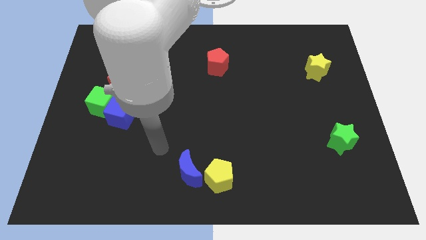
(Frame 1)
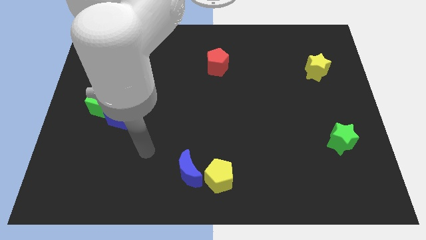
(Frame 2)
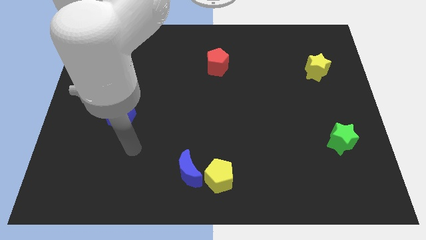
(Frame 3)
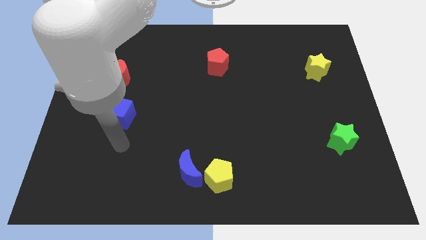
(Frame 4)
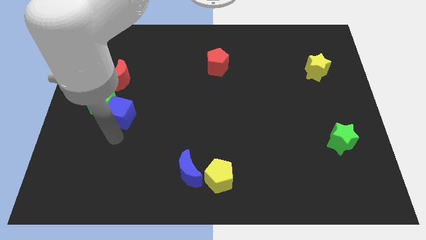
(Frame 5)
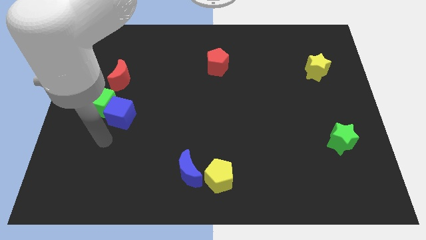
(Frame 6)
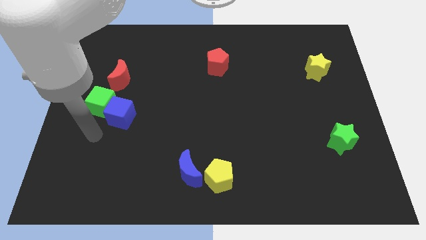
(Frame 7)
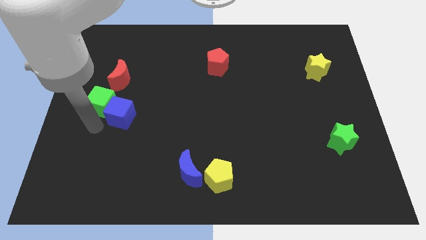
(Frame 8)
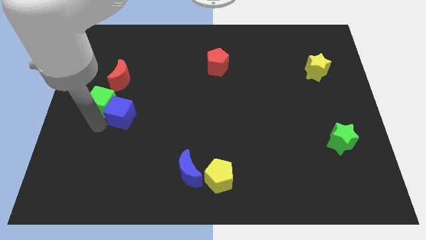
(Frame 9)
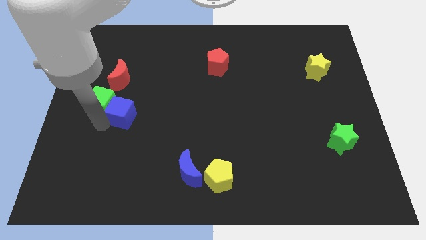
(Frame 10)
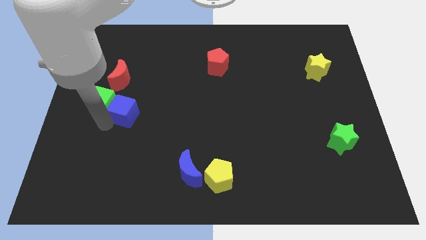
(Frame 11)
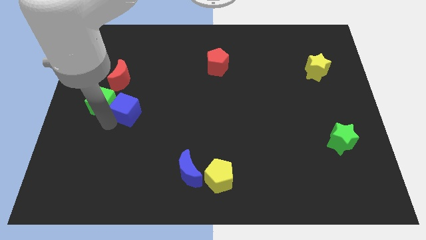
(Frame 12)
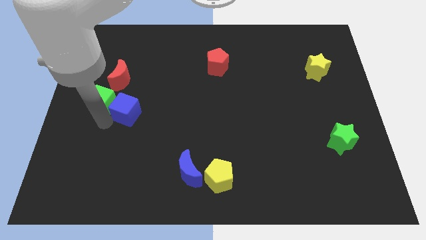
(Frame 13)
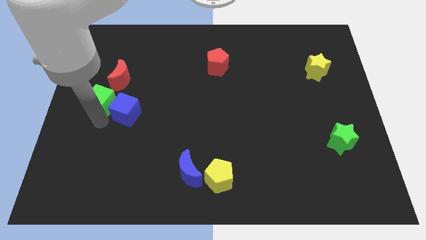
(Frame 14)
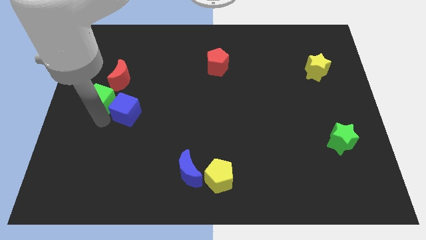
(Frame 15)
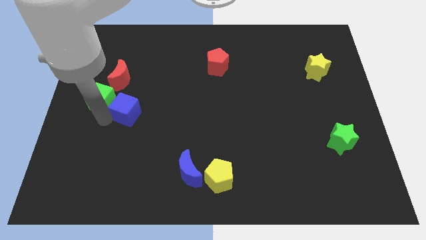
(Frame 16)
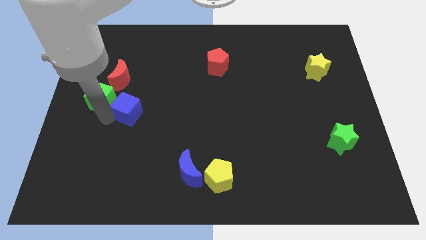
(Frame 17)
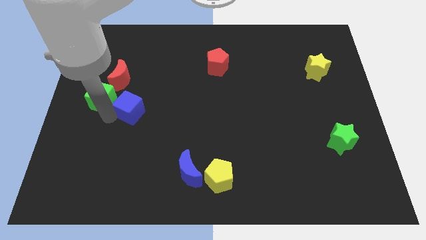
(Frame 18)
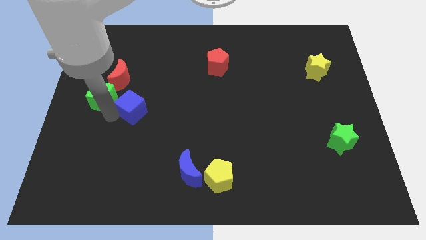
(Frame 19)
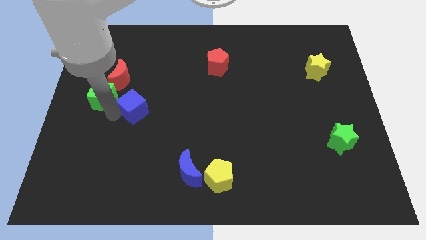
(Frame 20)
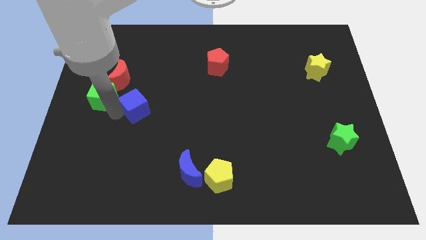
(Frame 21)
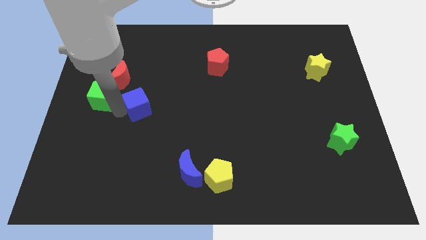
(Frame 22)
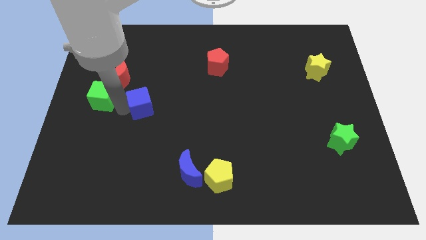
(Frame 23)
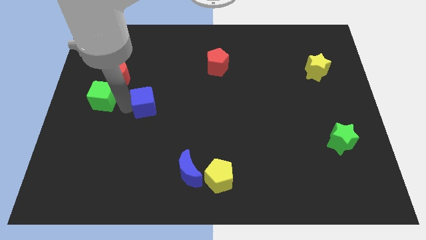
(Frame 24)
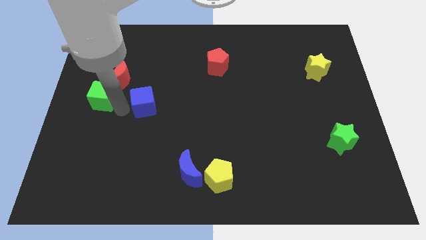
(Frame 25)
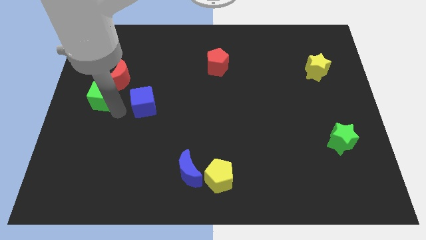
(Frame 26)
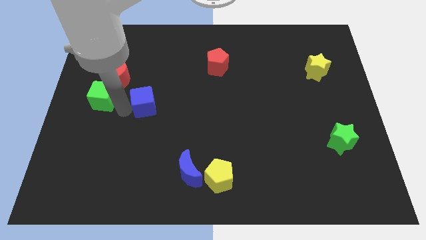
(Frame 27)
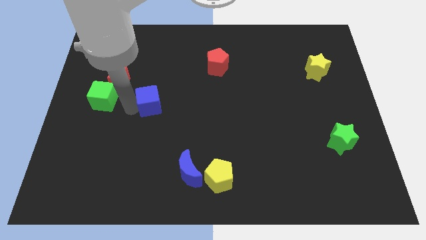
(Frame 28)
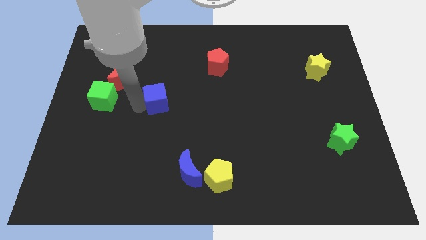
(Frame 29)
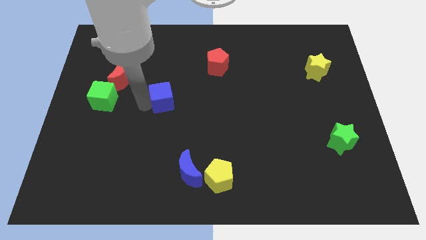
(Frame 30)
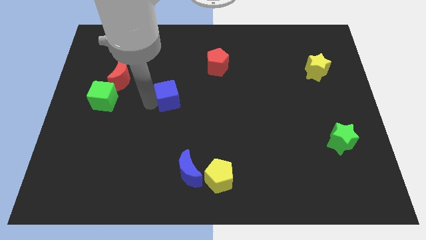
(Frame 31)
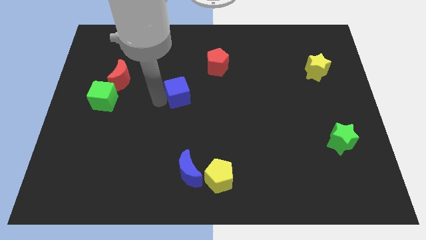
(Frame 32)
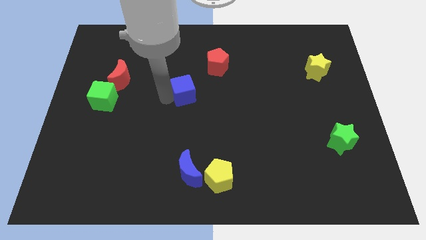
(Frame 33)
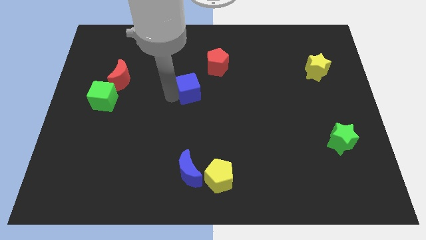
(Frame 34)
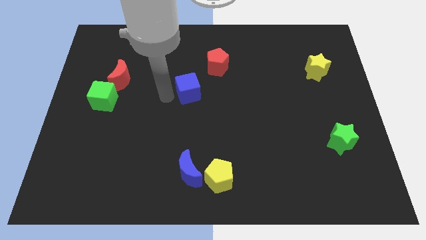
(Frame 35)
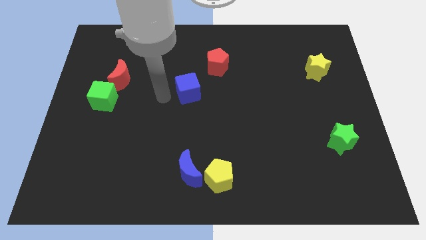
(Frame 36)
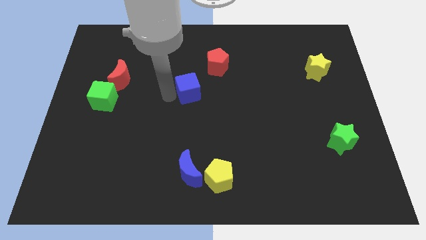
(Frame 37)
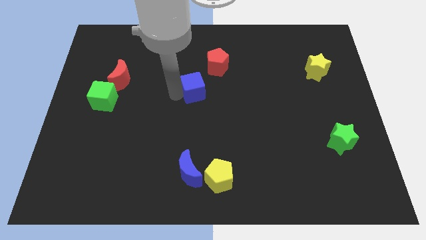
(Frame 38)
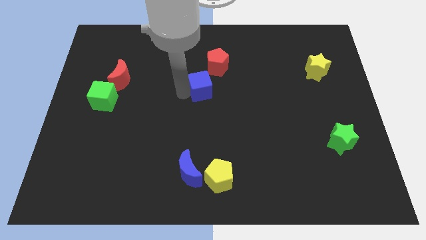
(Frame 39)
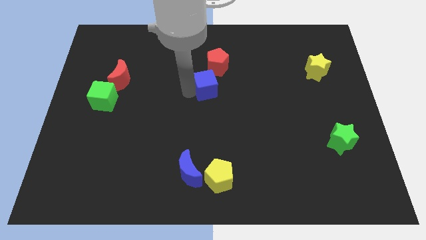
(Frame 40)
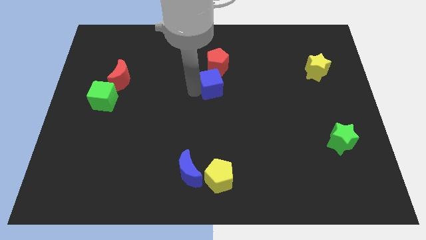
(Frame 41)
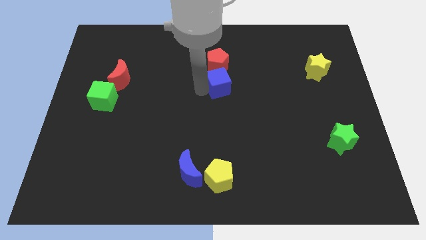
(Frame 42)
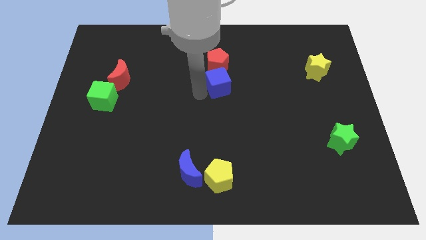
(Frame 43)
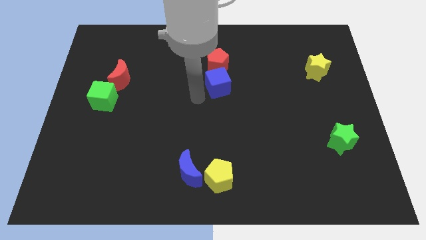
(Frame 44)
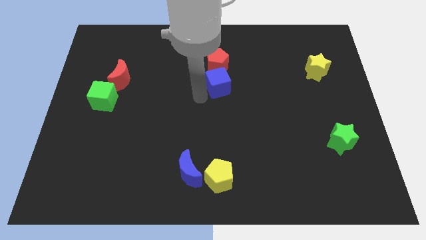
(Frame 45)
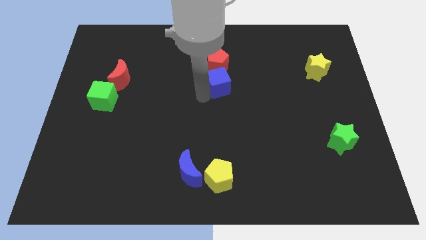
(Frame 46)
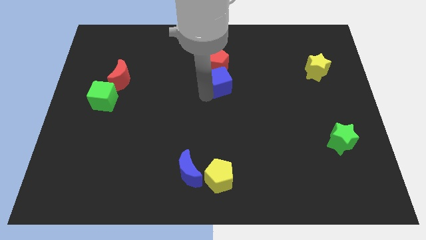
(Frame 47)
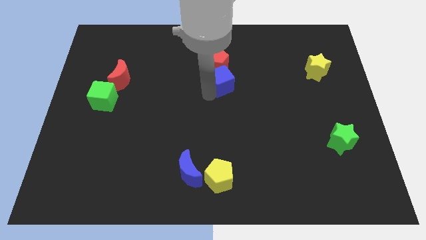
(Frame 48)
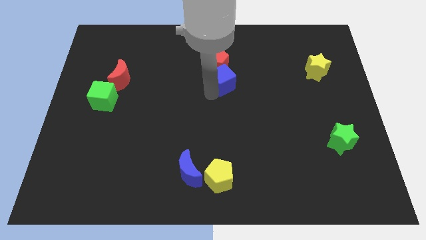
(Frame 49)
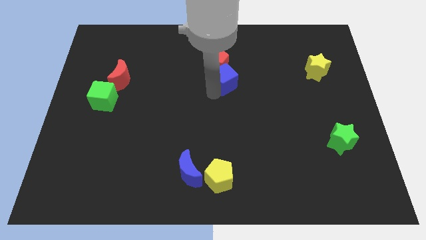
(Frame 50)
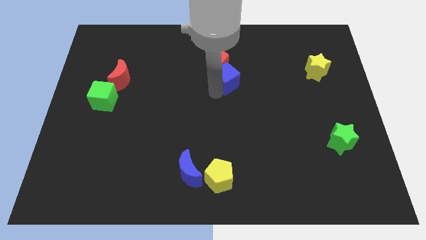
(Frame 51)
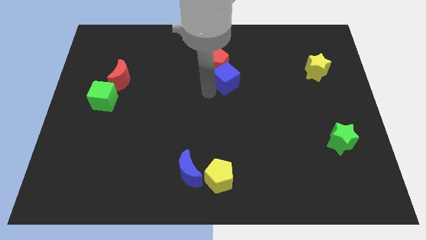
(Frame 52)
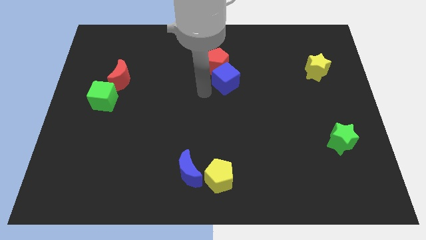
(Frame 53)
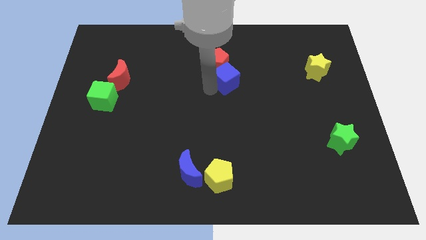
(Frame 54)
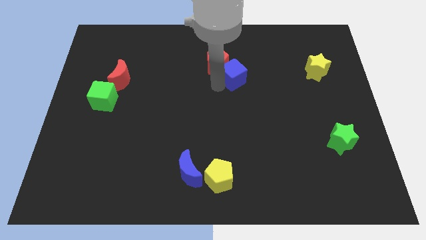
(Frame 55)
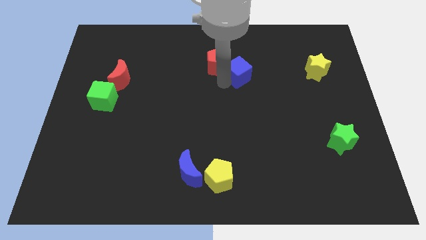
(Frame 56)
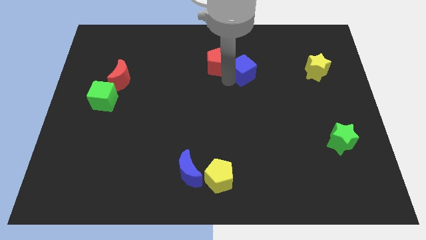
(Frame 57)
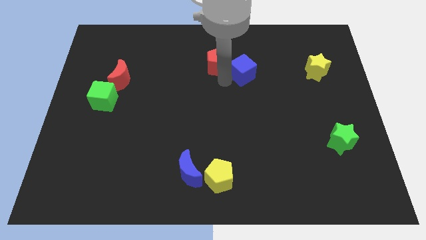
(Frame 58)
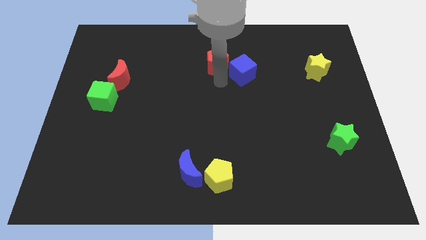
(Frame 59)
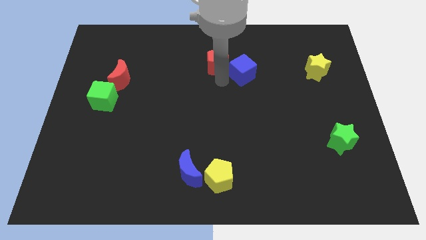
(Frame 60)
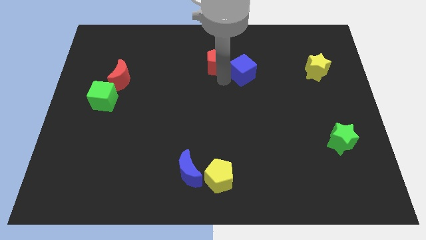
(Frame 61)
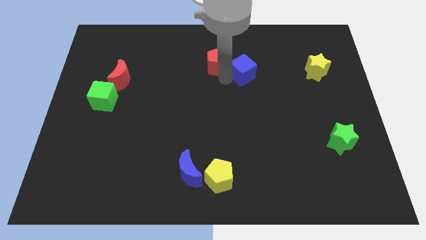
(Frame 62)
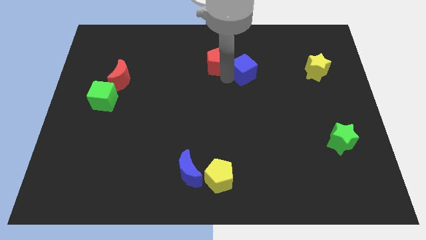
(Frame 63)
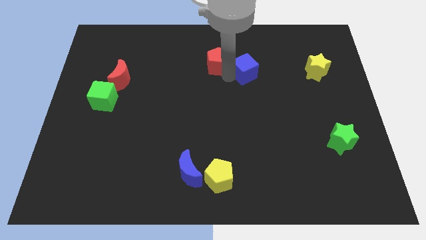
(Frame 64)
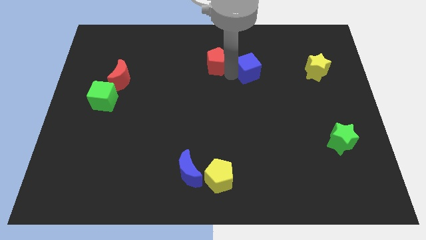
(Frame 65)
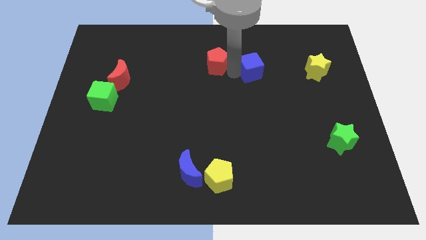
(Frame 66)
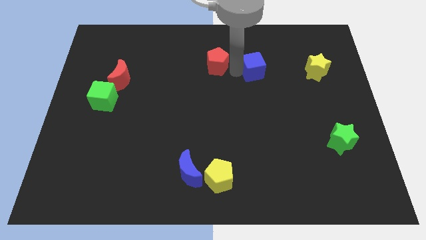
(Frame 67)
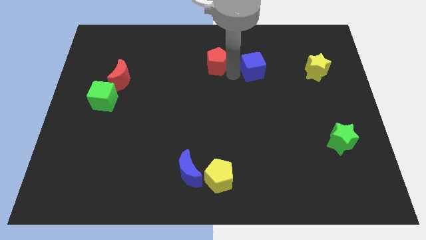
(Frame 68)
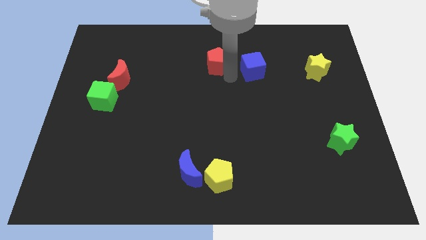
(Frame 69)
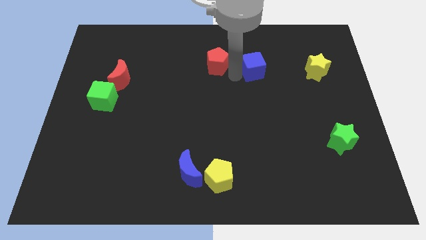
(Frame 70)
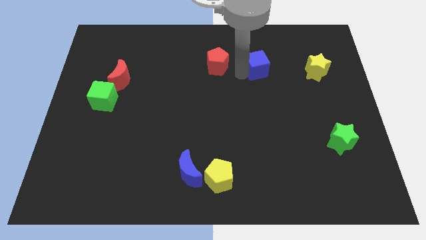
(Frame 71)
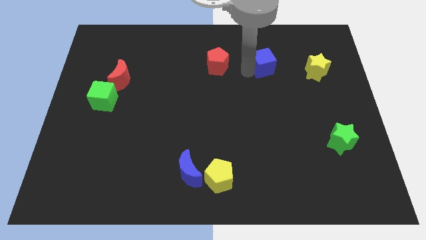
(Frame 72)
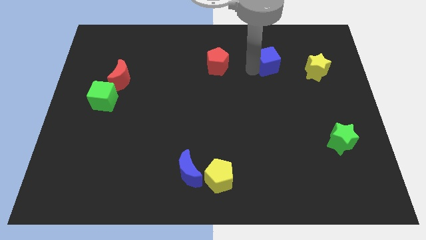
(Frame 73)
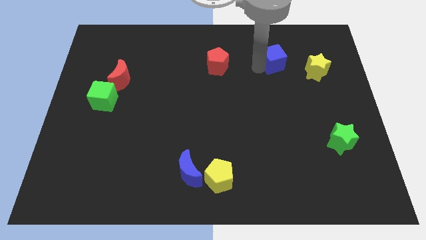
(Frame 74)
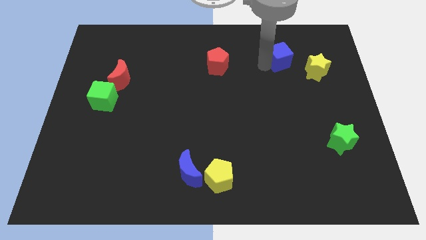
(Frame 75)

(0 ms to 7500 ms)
push the blue cube to the top left side of the yellow star
